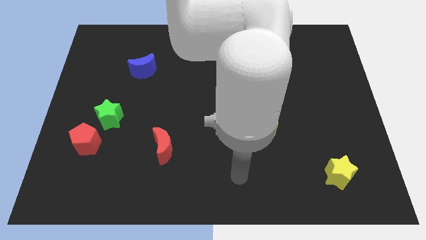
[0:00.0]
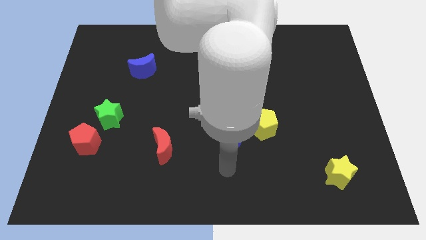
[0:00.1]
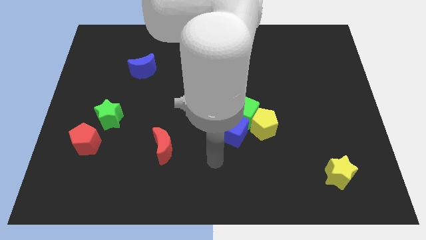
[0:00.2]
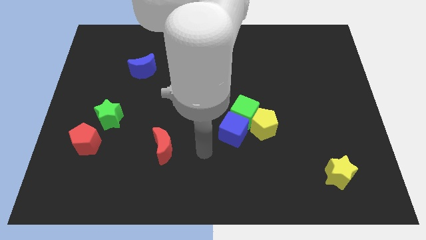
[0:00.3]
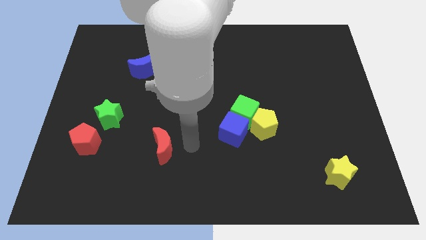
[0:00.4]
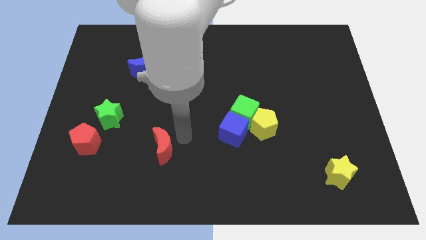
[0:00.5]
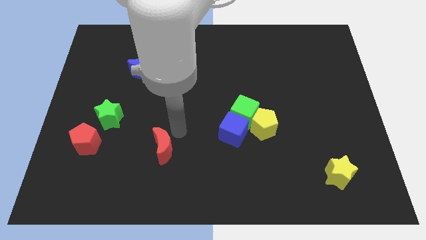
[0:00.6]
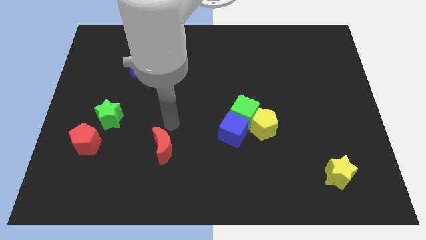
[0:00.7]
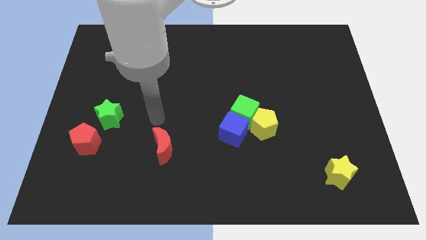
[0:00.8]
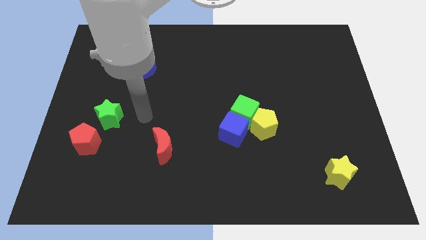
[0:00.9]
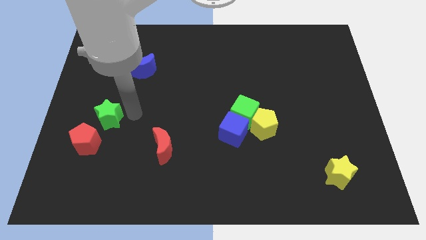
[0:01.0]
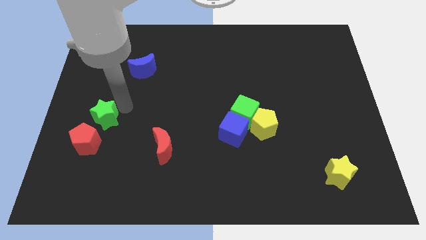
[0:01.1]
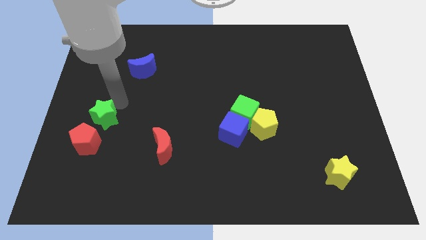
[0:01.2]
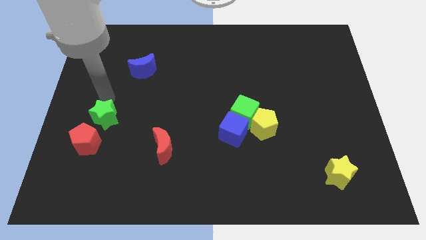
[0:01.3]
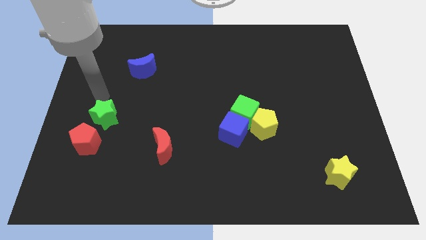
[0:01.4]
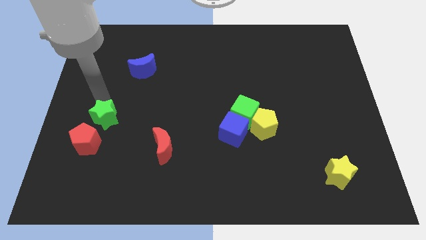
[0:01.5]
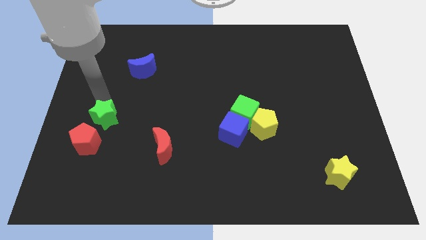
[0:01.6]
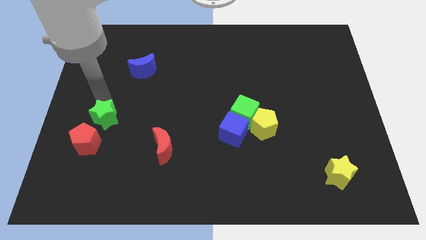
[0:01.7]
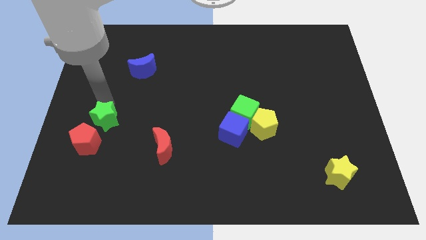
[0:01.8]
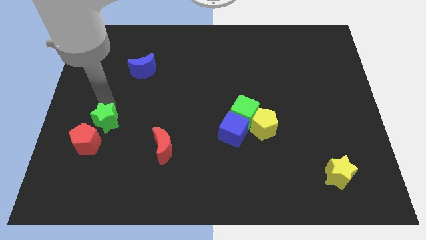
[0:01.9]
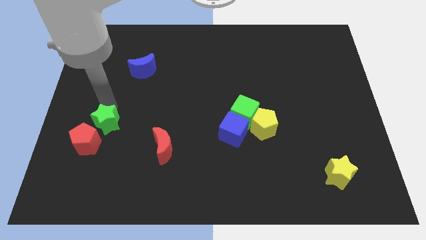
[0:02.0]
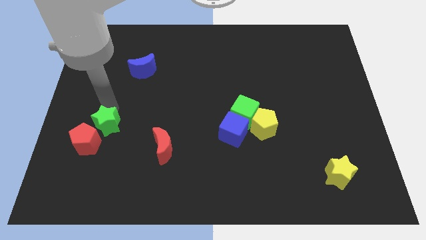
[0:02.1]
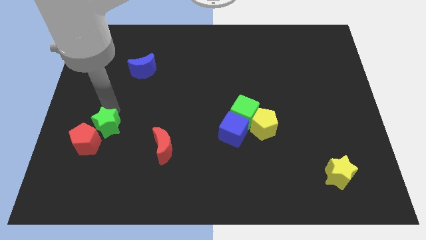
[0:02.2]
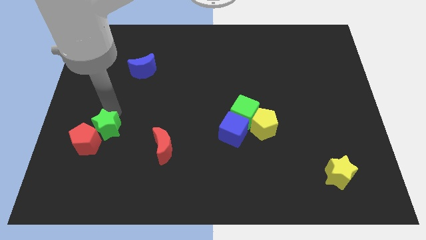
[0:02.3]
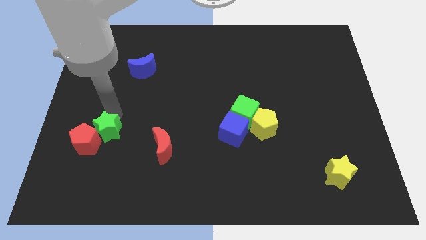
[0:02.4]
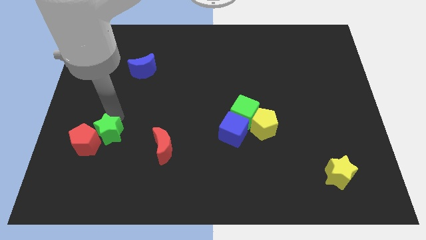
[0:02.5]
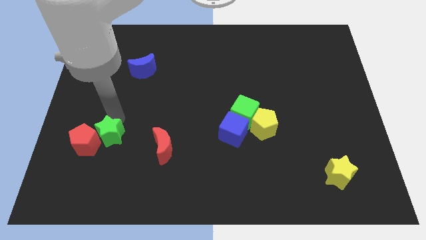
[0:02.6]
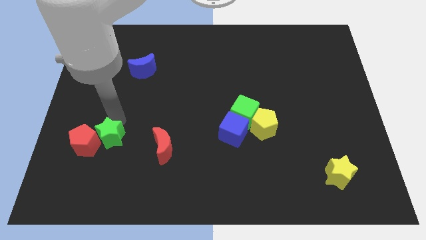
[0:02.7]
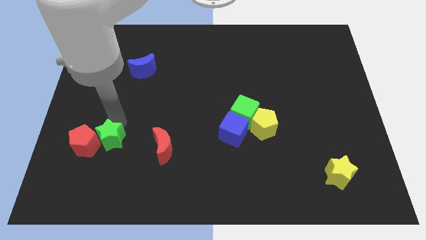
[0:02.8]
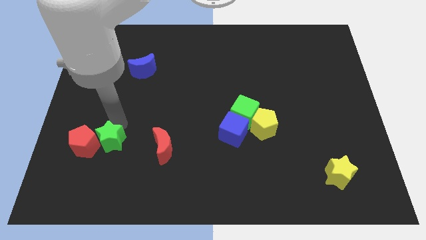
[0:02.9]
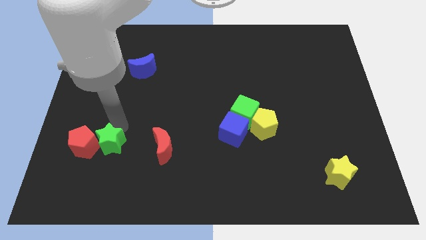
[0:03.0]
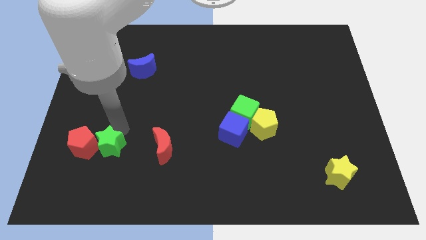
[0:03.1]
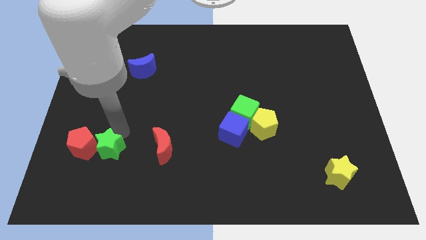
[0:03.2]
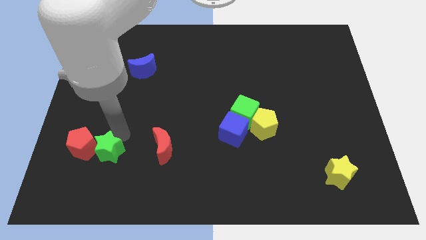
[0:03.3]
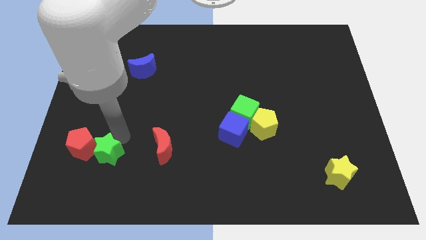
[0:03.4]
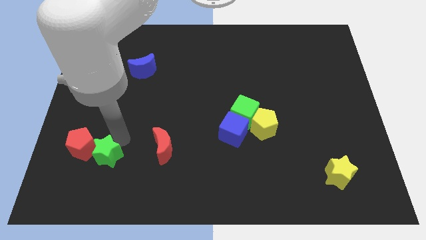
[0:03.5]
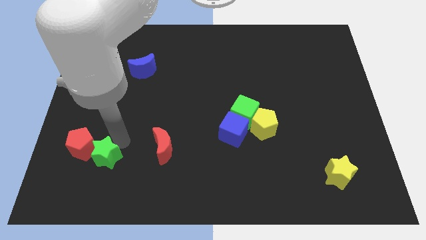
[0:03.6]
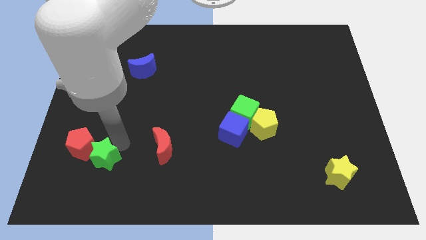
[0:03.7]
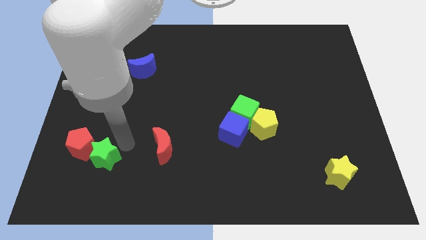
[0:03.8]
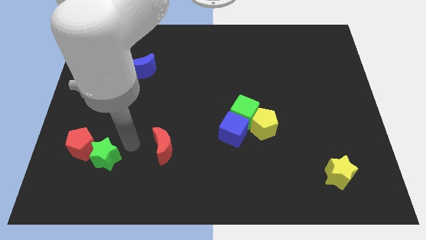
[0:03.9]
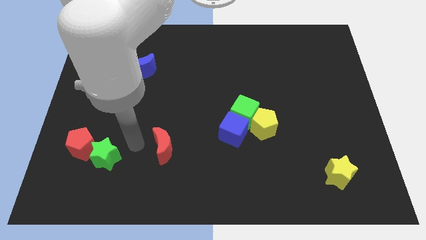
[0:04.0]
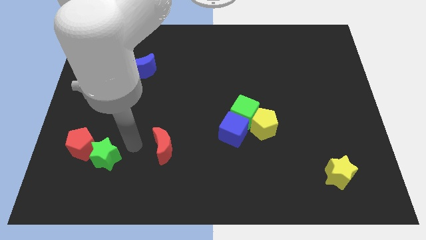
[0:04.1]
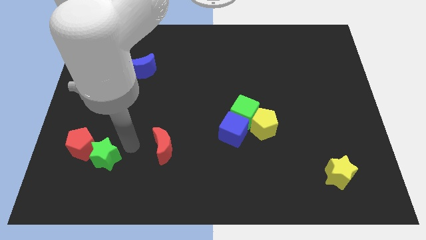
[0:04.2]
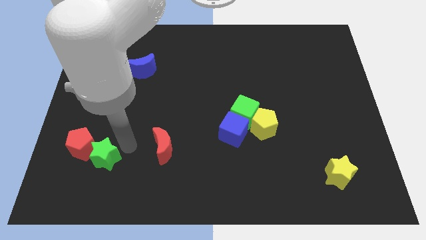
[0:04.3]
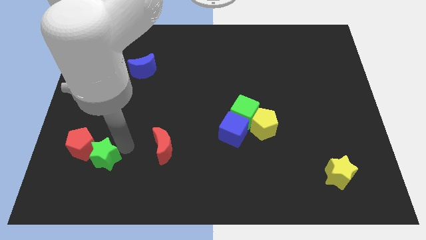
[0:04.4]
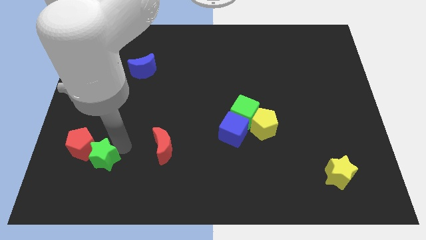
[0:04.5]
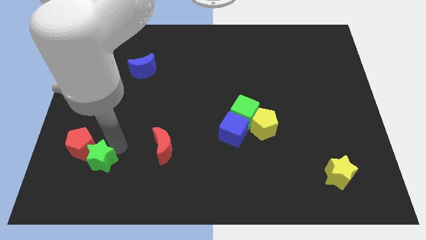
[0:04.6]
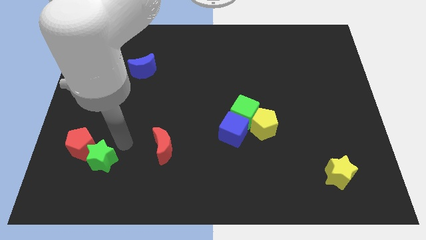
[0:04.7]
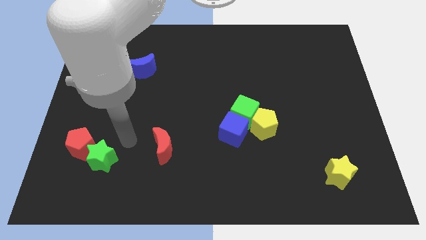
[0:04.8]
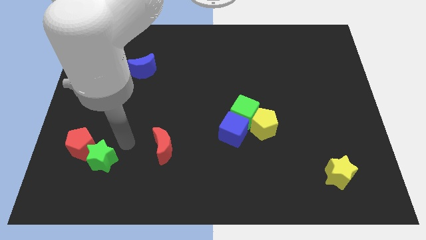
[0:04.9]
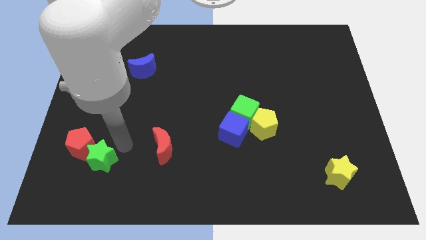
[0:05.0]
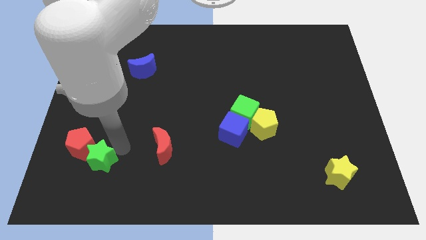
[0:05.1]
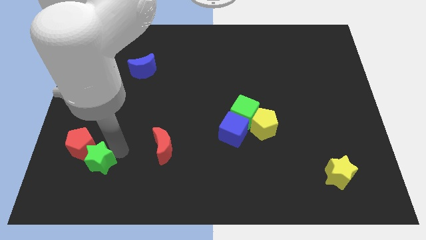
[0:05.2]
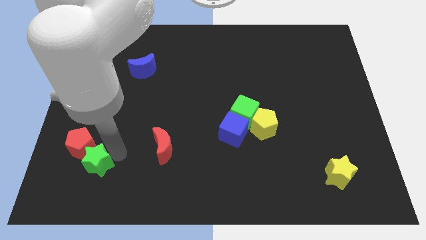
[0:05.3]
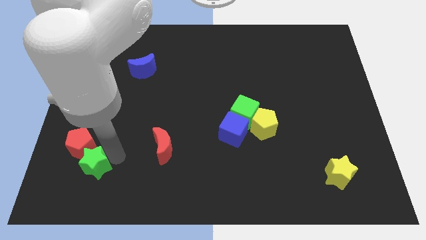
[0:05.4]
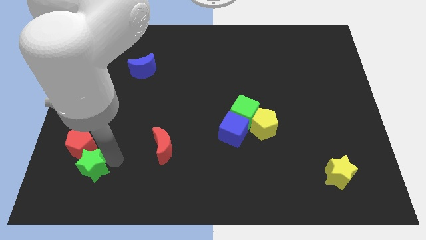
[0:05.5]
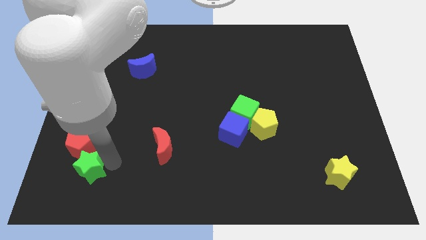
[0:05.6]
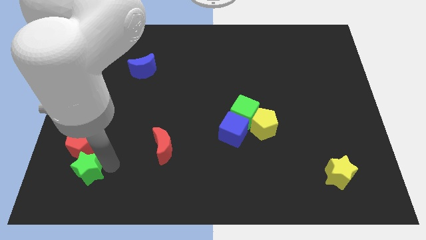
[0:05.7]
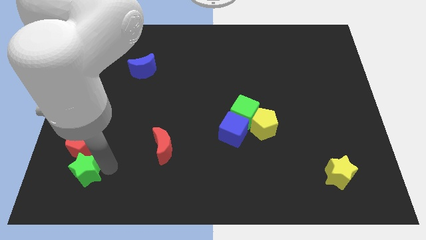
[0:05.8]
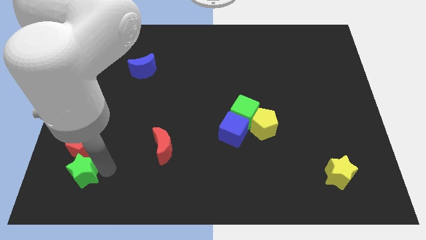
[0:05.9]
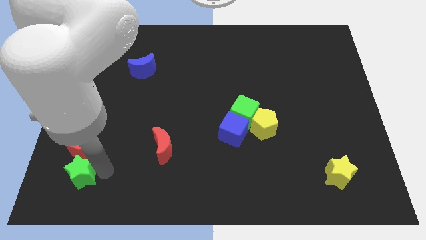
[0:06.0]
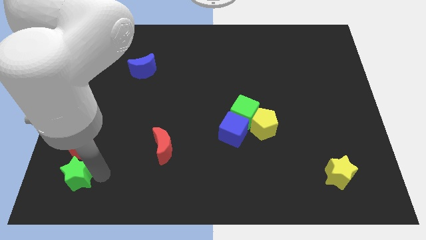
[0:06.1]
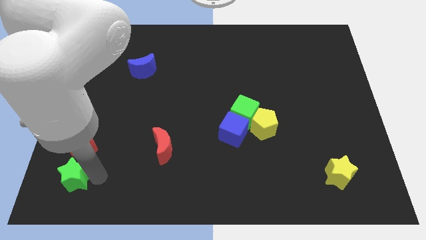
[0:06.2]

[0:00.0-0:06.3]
push the green star to the bottom left

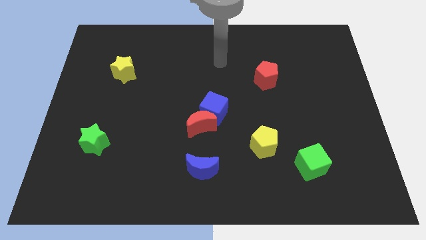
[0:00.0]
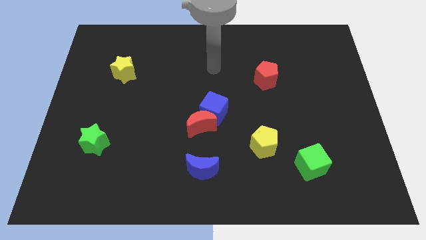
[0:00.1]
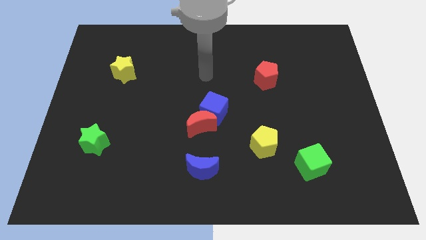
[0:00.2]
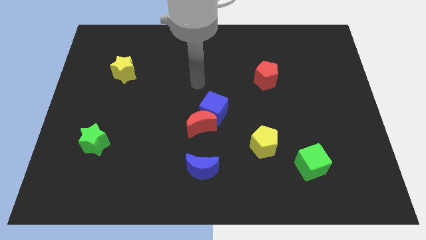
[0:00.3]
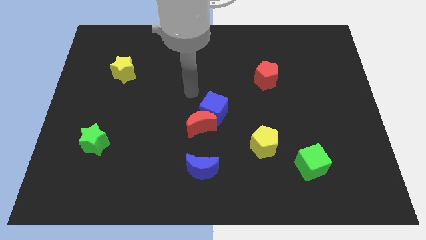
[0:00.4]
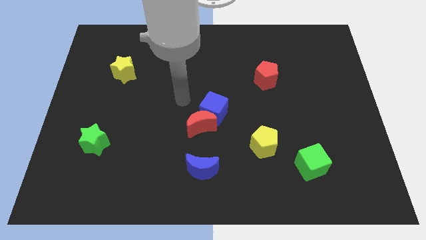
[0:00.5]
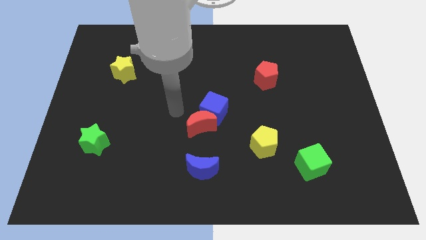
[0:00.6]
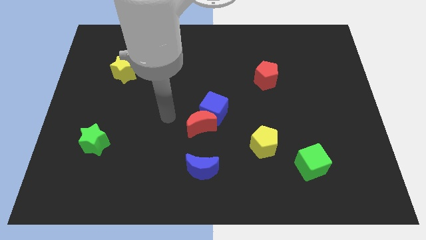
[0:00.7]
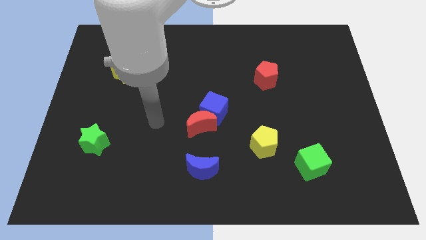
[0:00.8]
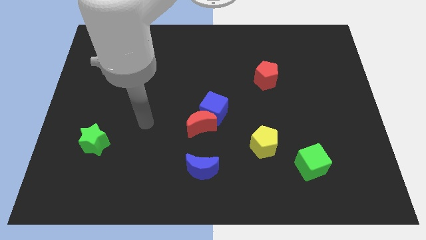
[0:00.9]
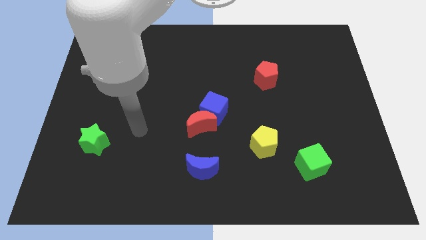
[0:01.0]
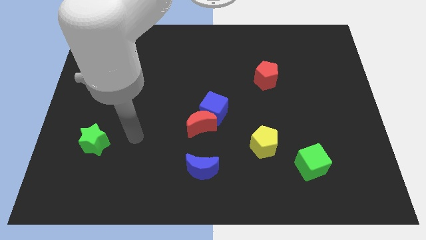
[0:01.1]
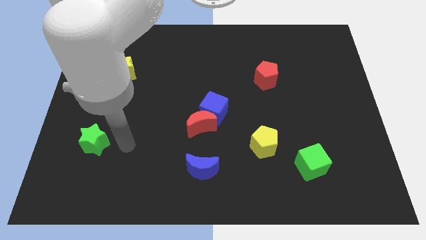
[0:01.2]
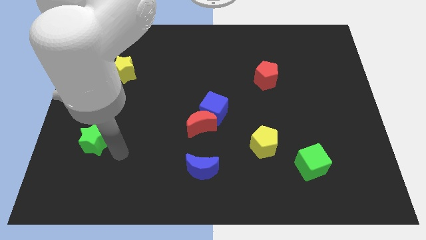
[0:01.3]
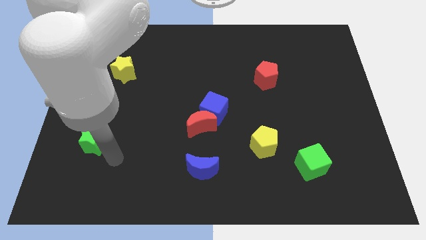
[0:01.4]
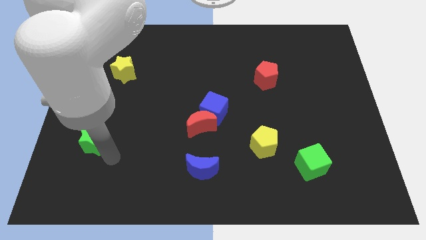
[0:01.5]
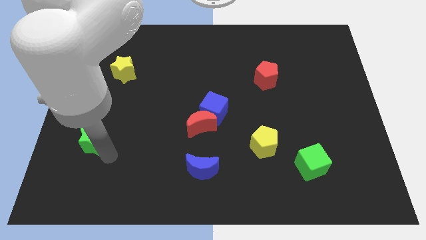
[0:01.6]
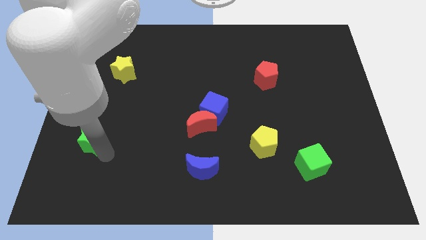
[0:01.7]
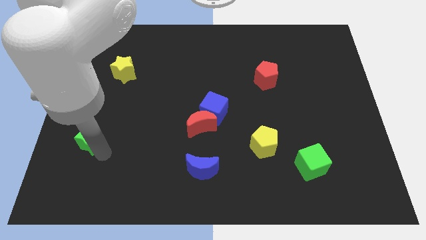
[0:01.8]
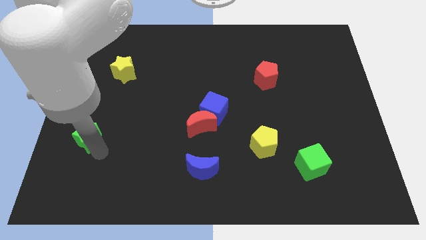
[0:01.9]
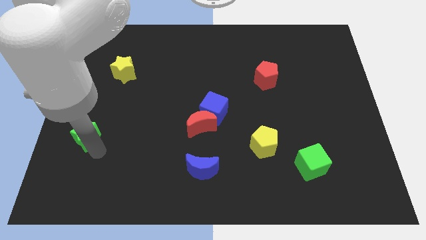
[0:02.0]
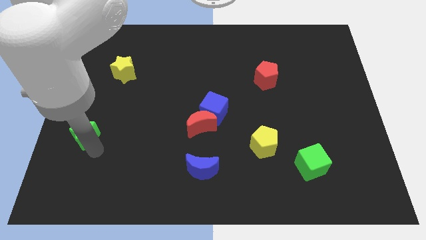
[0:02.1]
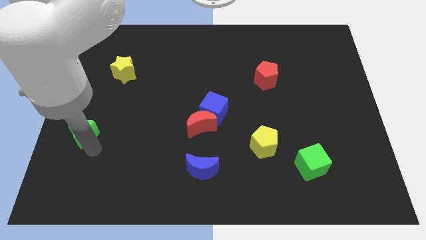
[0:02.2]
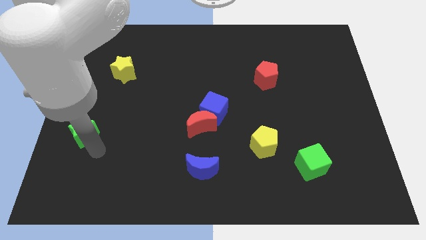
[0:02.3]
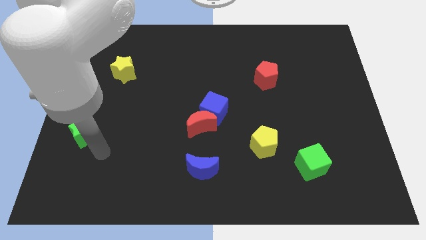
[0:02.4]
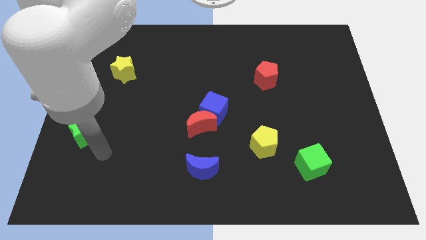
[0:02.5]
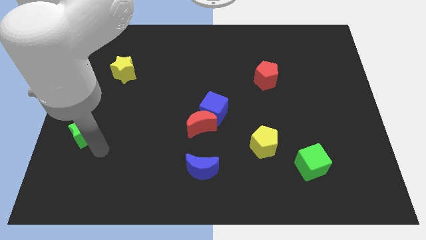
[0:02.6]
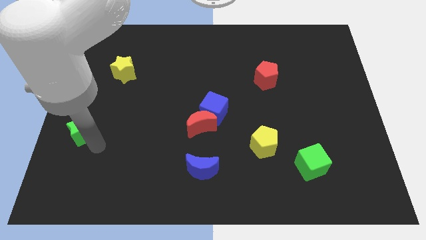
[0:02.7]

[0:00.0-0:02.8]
push the green star to the center left
